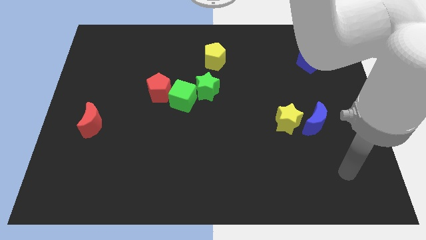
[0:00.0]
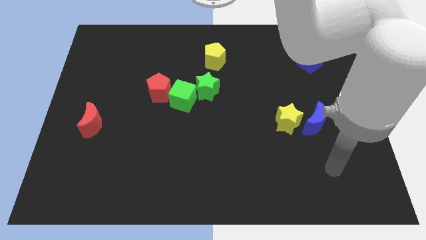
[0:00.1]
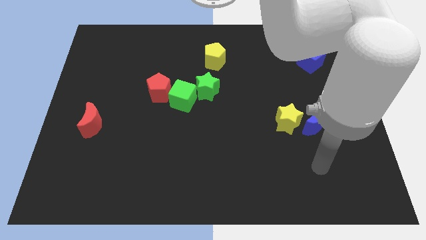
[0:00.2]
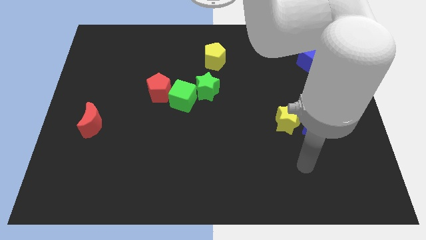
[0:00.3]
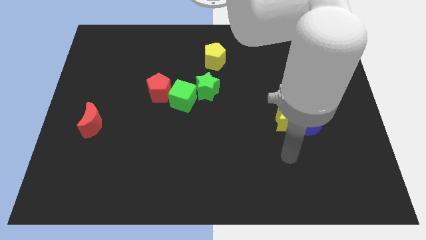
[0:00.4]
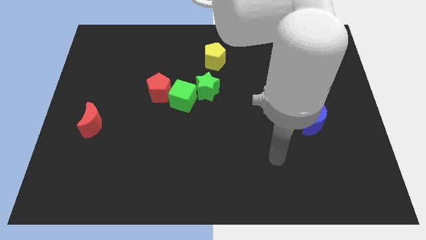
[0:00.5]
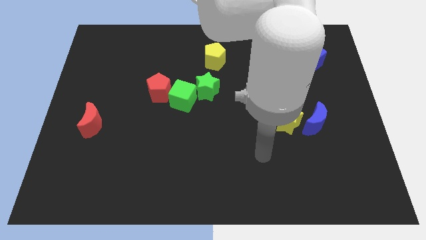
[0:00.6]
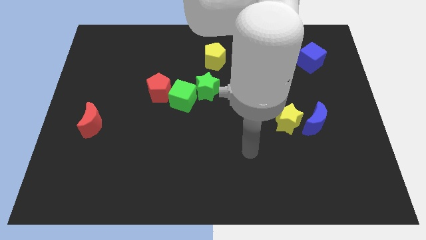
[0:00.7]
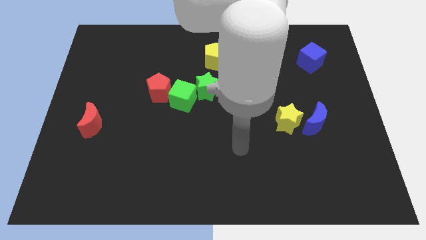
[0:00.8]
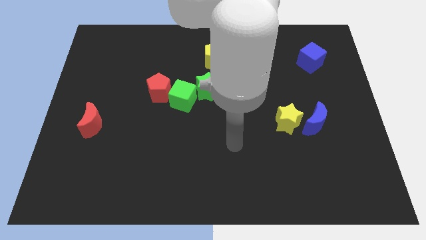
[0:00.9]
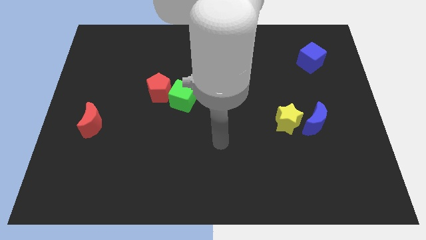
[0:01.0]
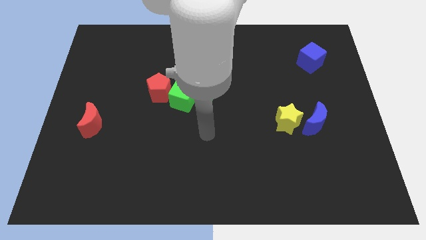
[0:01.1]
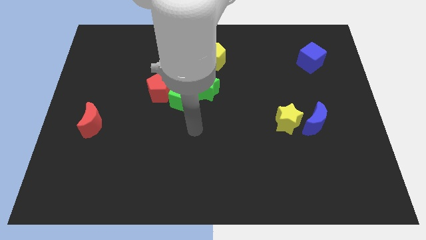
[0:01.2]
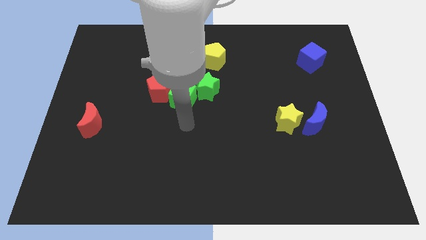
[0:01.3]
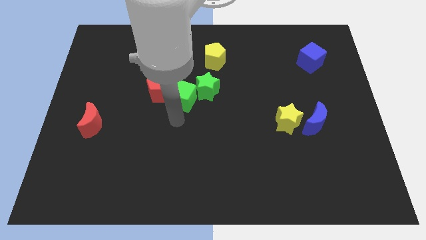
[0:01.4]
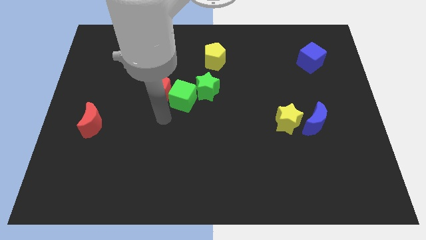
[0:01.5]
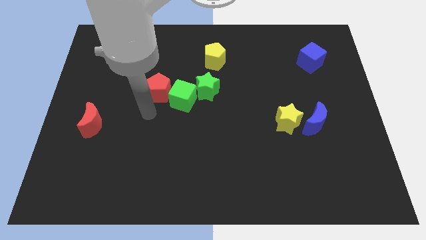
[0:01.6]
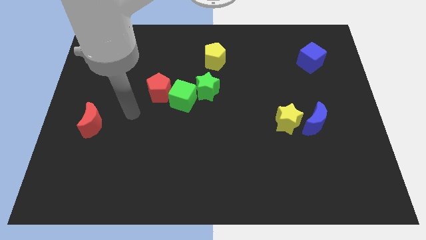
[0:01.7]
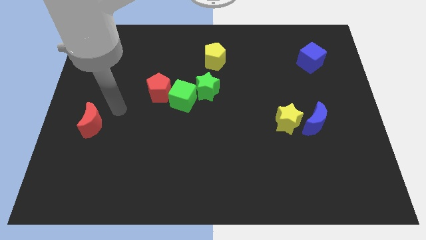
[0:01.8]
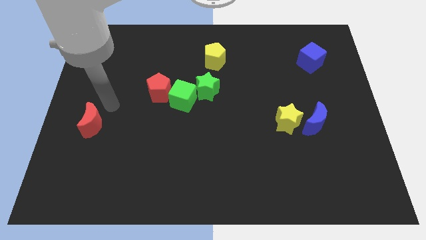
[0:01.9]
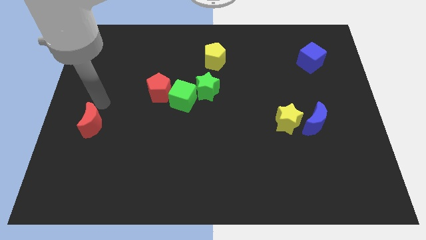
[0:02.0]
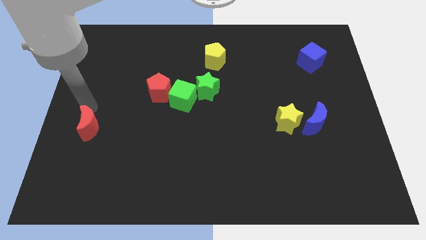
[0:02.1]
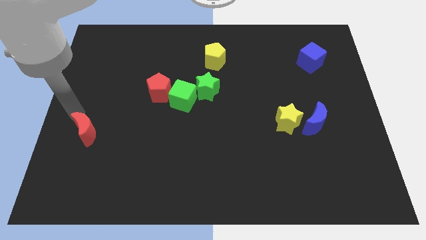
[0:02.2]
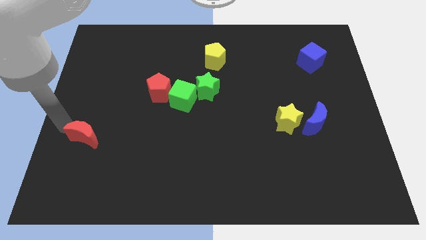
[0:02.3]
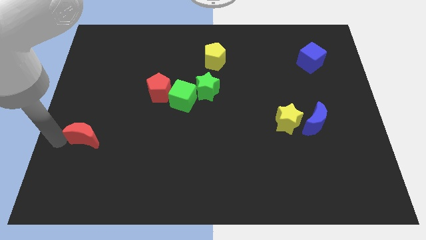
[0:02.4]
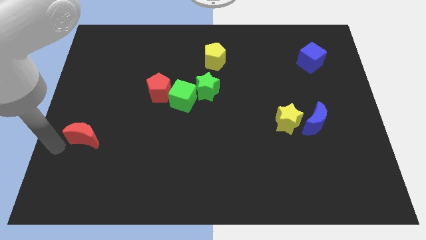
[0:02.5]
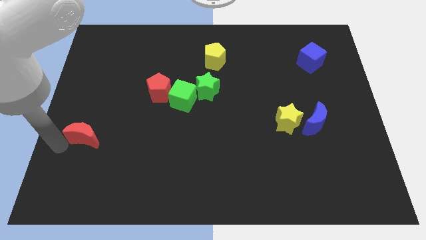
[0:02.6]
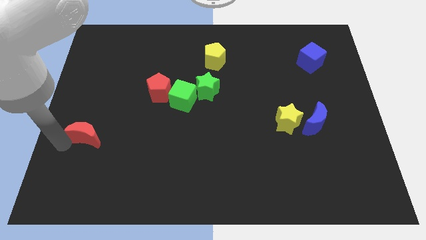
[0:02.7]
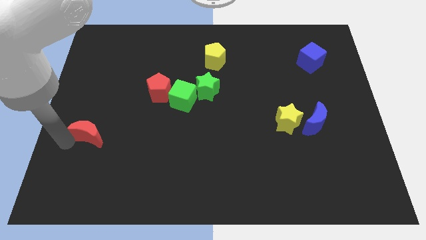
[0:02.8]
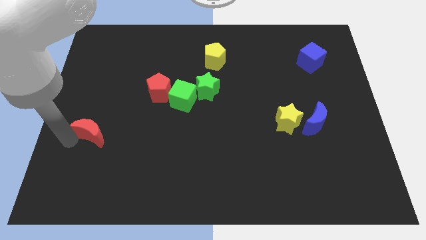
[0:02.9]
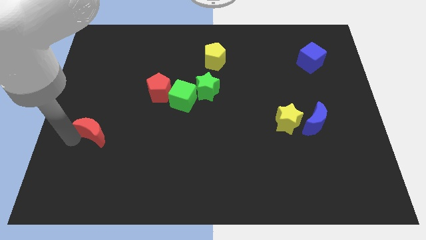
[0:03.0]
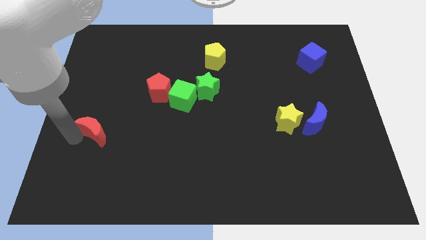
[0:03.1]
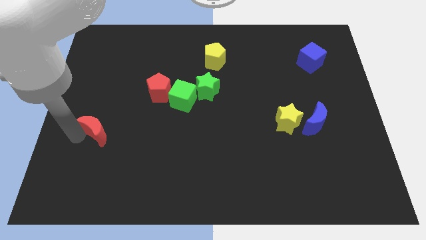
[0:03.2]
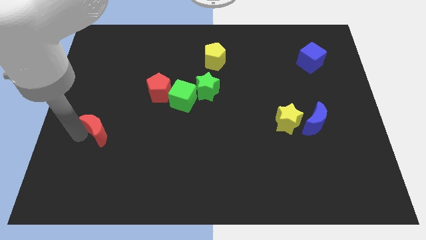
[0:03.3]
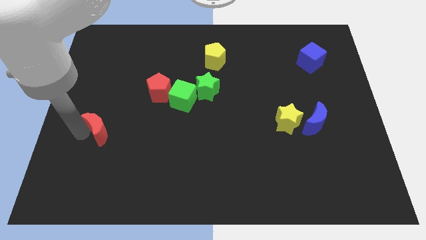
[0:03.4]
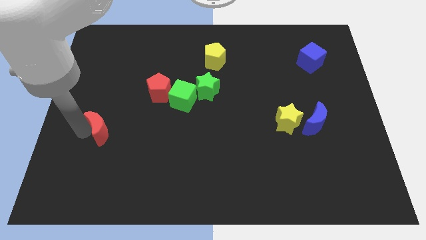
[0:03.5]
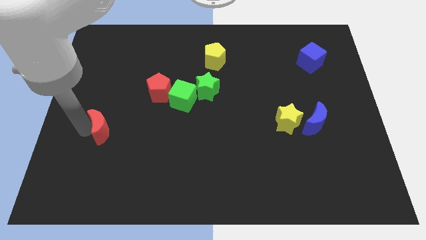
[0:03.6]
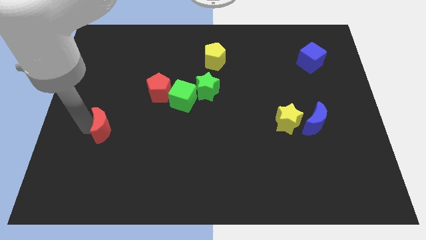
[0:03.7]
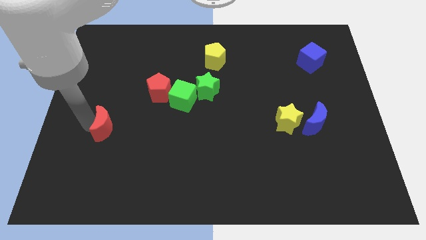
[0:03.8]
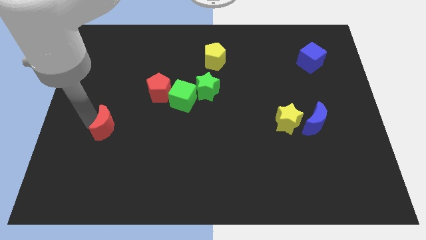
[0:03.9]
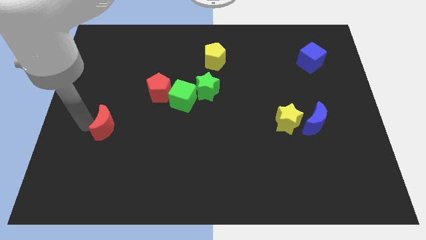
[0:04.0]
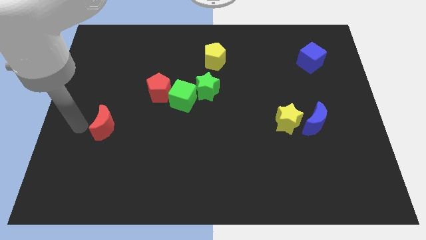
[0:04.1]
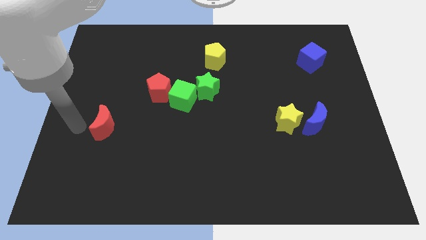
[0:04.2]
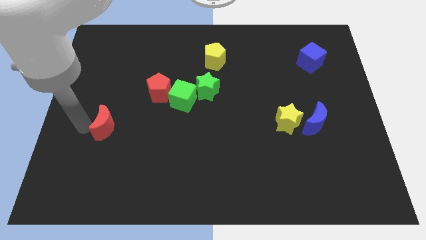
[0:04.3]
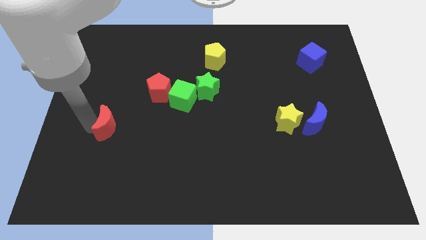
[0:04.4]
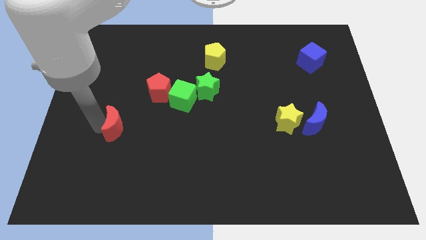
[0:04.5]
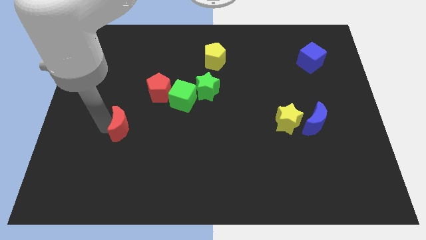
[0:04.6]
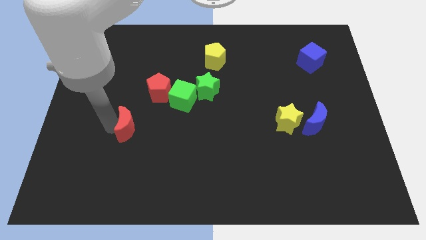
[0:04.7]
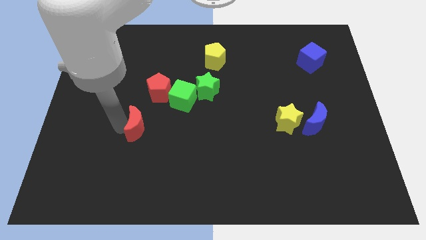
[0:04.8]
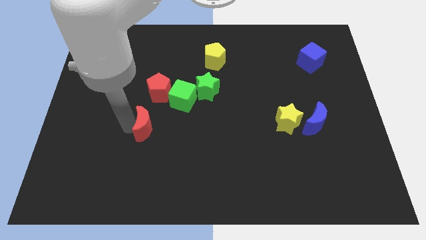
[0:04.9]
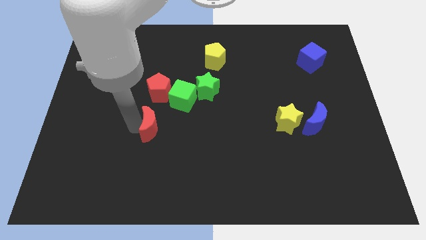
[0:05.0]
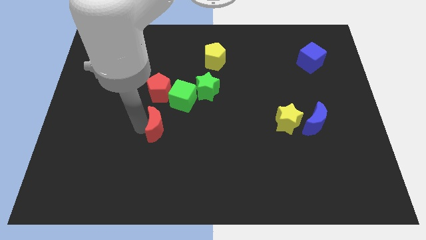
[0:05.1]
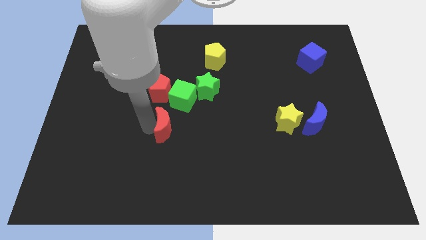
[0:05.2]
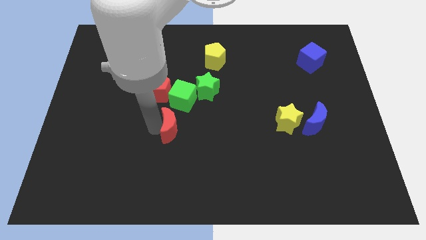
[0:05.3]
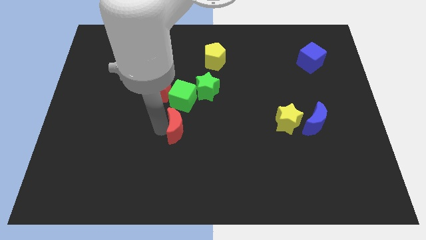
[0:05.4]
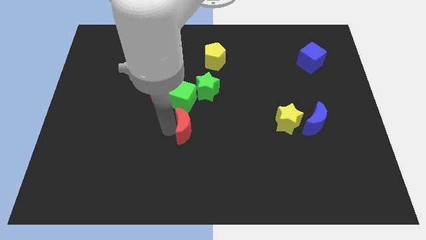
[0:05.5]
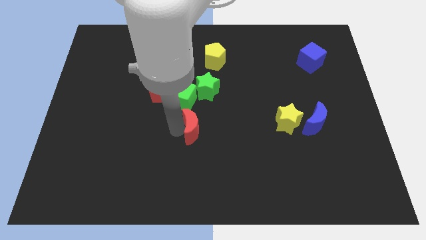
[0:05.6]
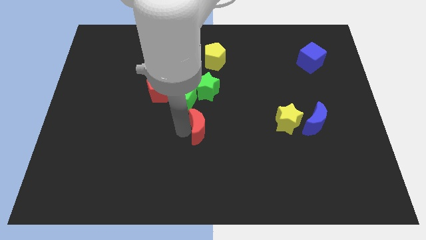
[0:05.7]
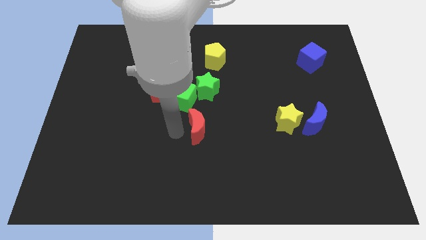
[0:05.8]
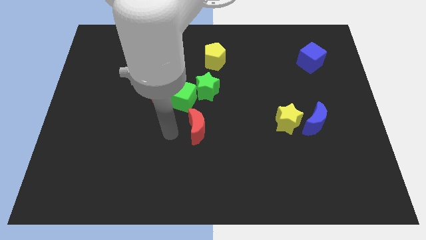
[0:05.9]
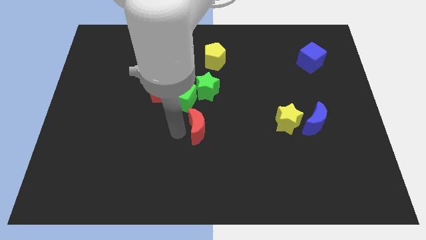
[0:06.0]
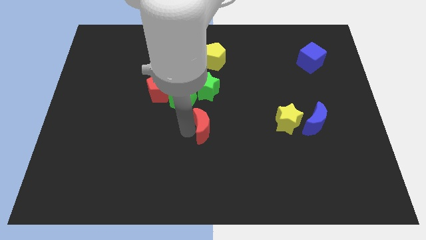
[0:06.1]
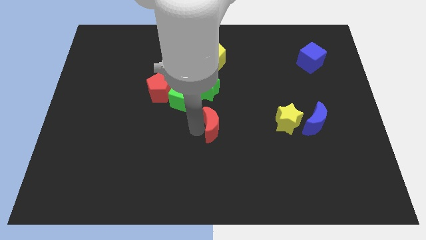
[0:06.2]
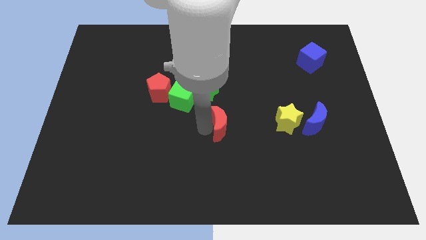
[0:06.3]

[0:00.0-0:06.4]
slide the red moon just left of the yellow star

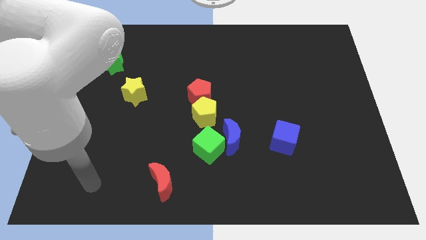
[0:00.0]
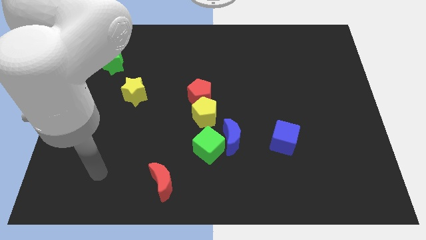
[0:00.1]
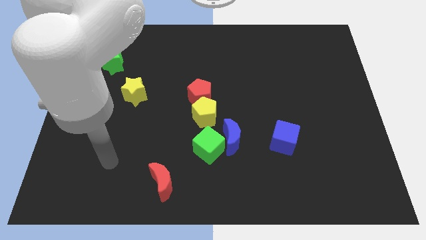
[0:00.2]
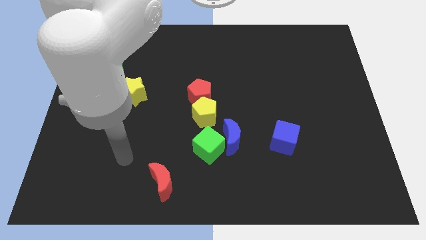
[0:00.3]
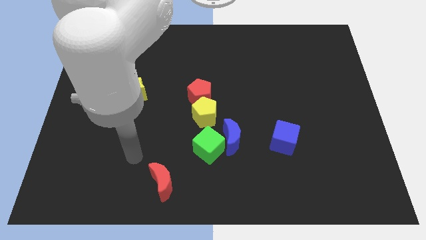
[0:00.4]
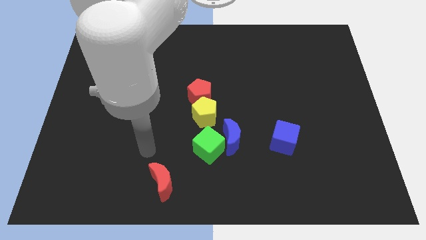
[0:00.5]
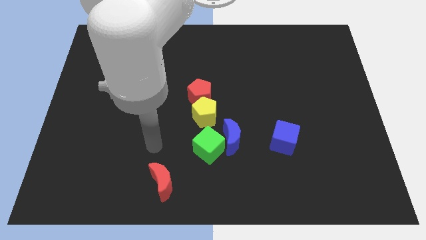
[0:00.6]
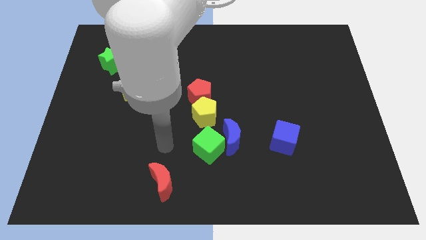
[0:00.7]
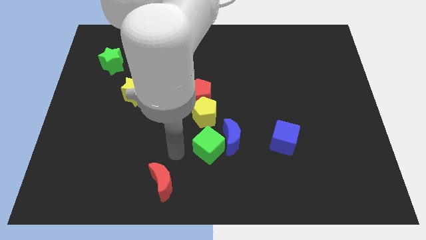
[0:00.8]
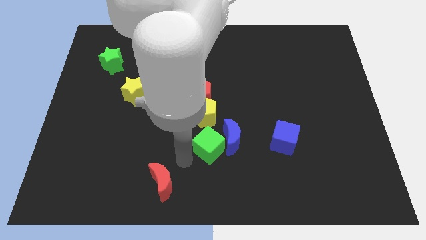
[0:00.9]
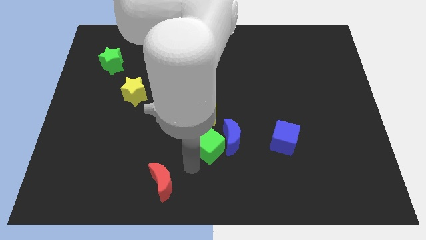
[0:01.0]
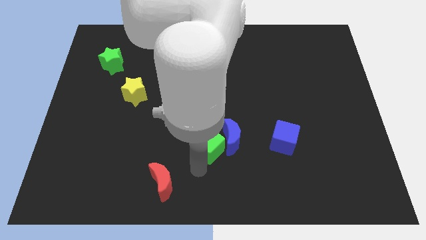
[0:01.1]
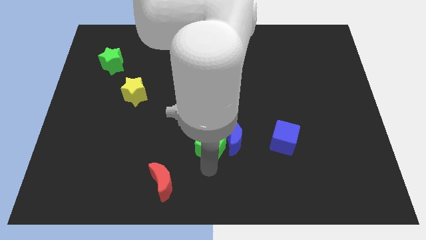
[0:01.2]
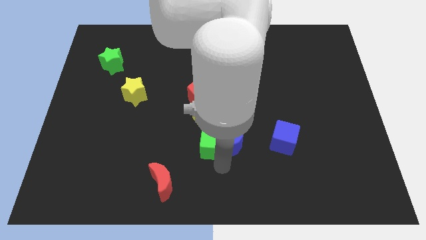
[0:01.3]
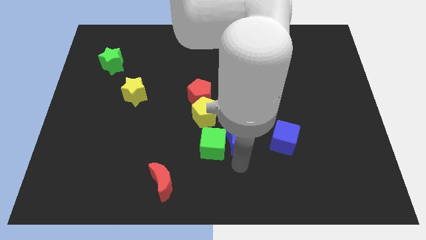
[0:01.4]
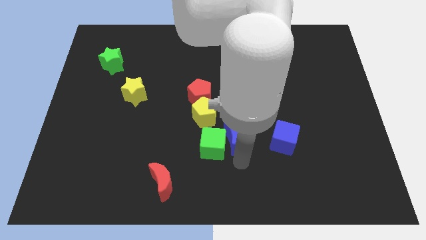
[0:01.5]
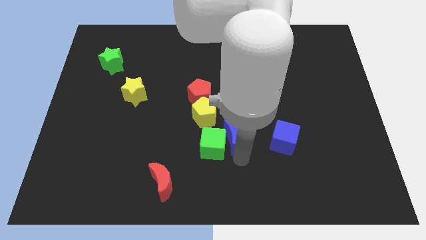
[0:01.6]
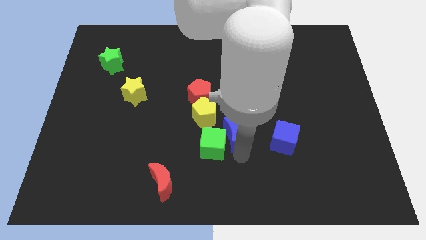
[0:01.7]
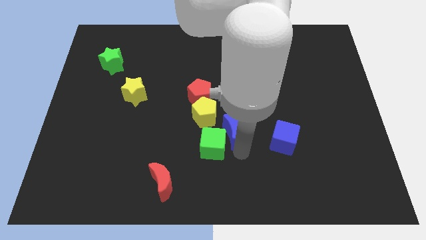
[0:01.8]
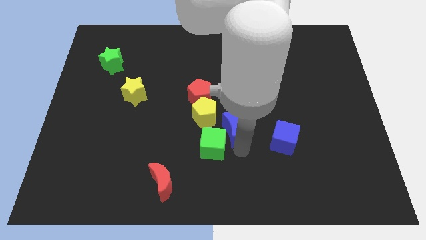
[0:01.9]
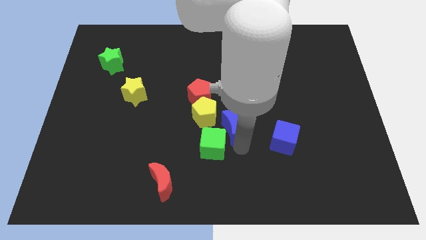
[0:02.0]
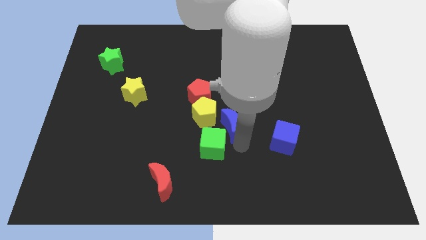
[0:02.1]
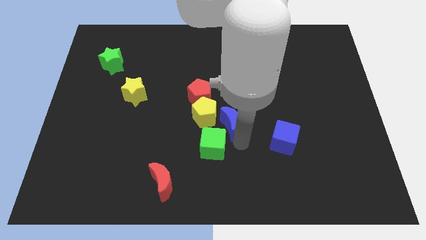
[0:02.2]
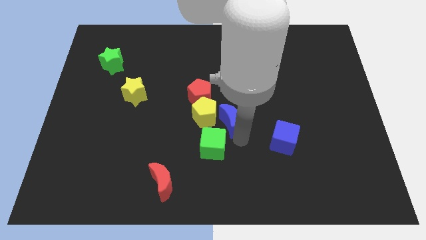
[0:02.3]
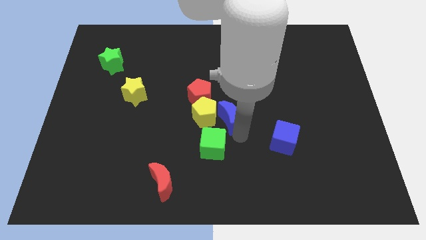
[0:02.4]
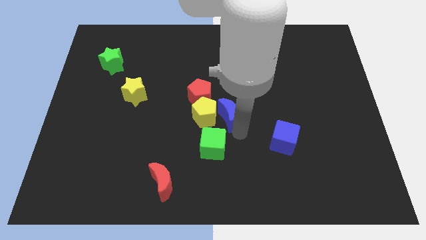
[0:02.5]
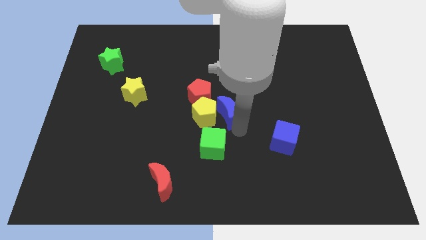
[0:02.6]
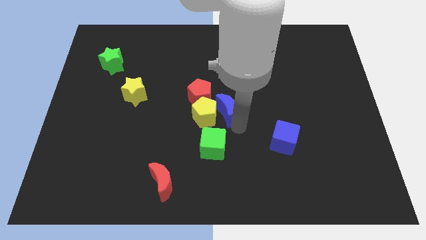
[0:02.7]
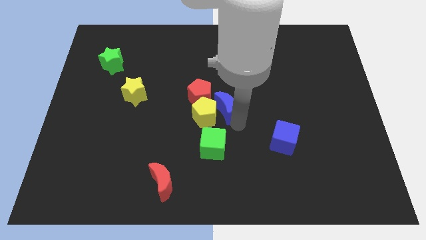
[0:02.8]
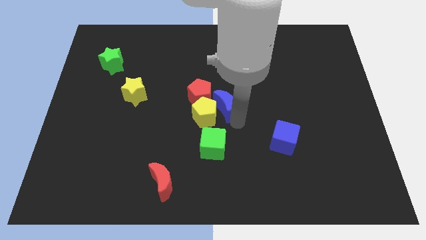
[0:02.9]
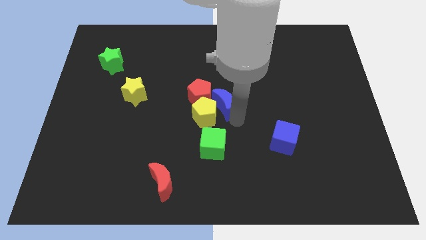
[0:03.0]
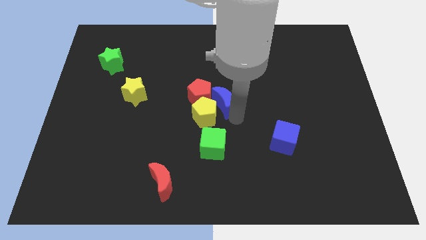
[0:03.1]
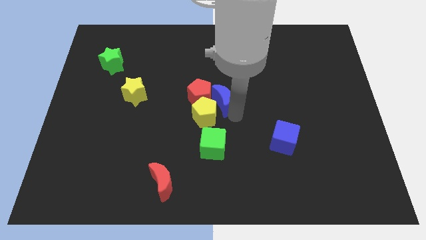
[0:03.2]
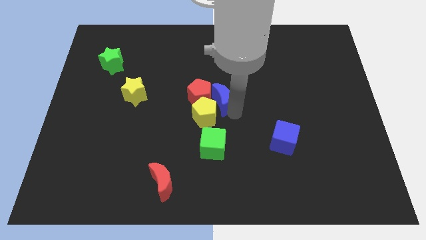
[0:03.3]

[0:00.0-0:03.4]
put the blue moon diagonally up and to the right of the red pentagon
